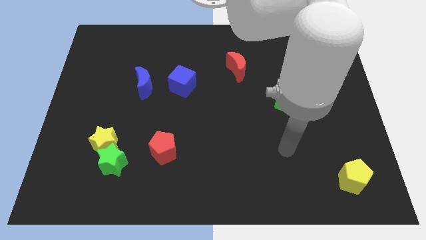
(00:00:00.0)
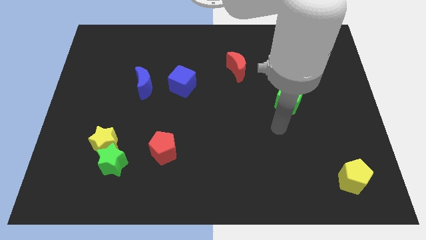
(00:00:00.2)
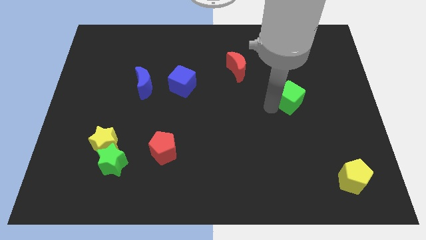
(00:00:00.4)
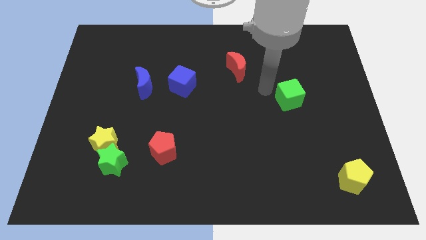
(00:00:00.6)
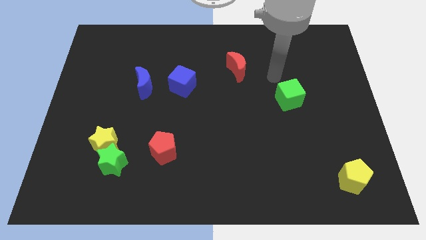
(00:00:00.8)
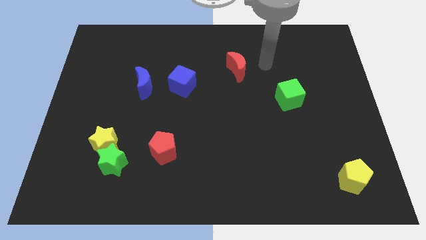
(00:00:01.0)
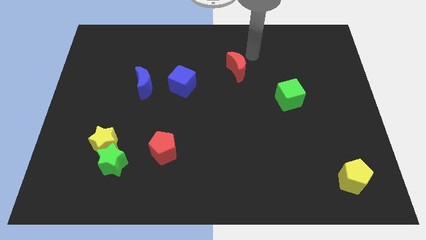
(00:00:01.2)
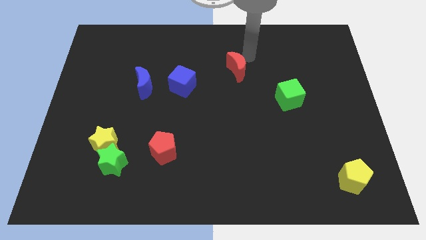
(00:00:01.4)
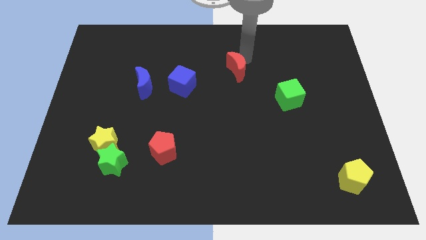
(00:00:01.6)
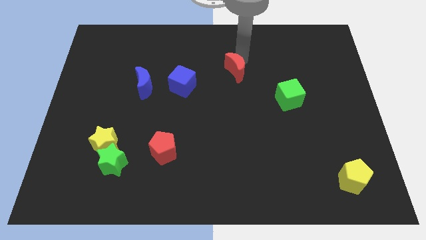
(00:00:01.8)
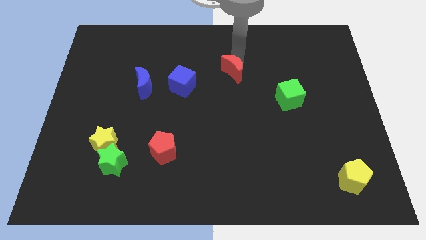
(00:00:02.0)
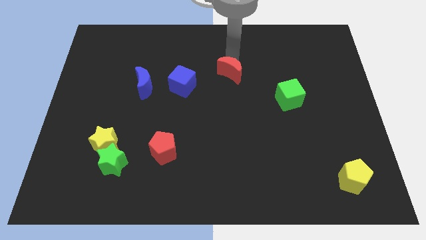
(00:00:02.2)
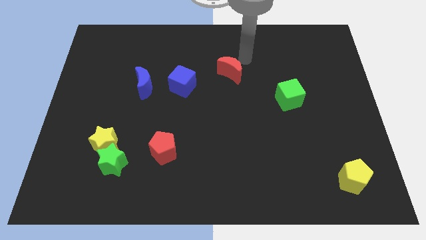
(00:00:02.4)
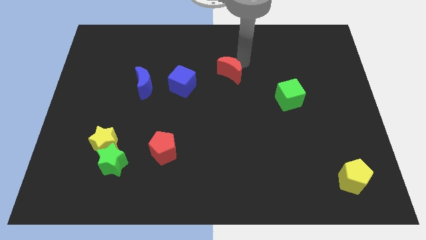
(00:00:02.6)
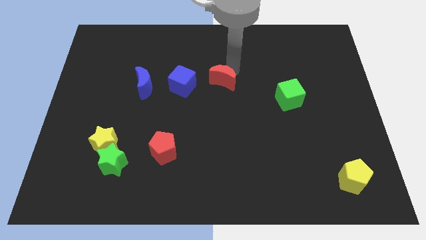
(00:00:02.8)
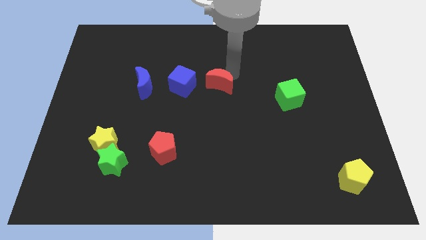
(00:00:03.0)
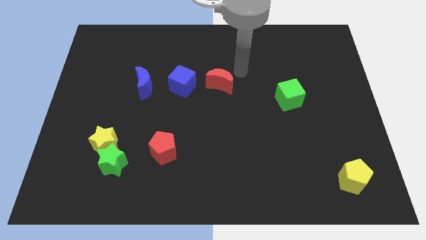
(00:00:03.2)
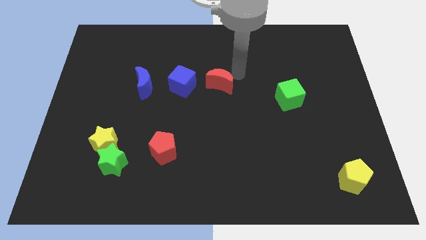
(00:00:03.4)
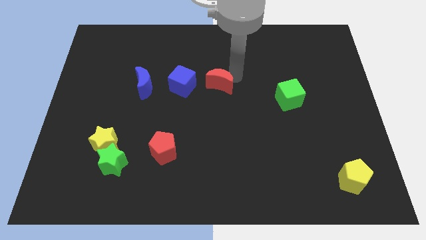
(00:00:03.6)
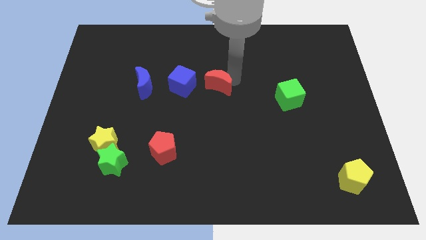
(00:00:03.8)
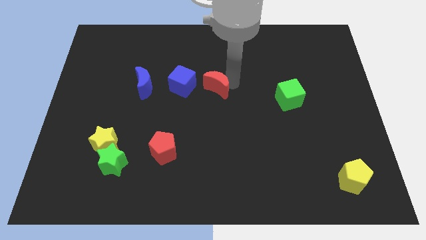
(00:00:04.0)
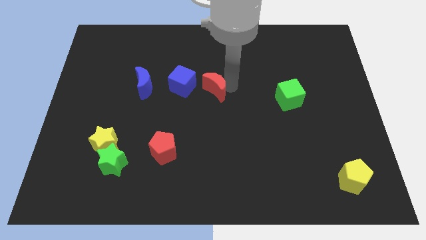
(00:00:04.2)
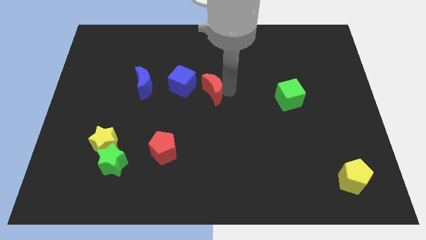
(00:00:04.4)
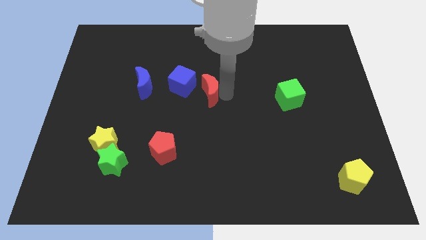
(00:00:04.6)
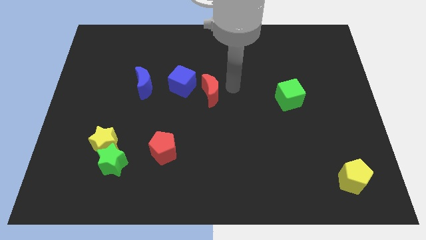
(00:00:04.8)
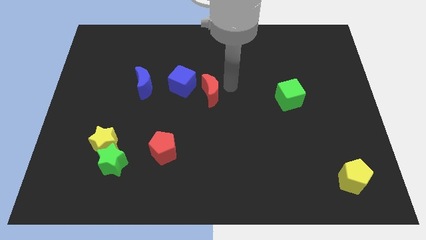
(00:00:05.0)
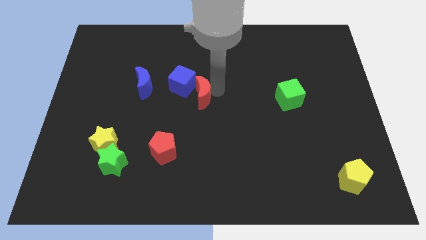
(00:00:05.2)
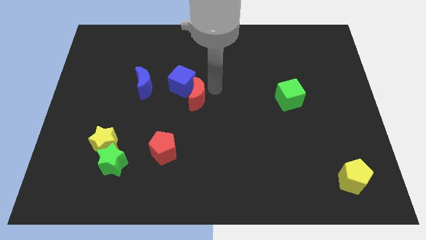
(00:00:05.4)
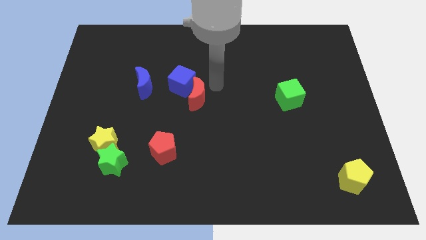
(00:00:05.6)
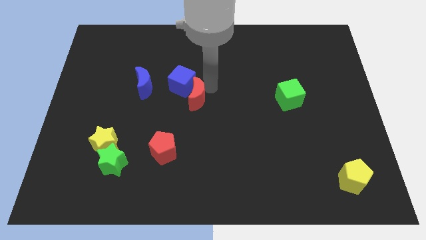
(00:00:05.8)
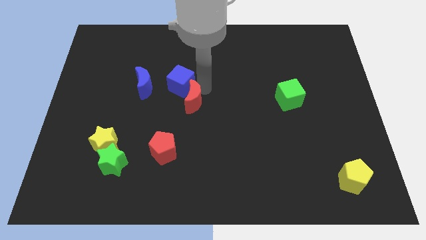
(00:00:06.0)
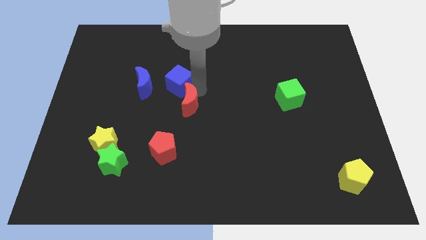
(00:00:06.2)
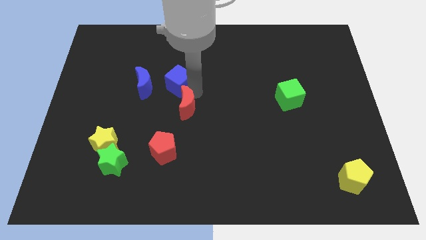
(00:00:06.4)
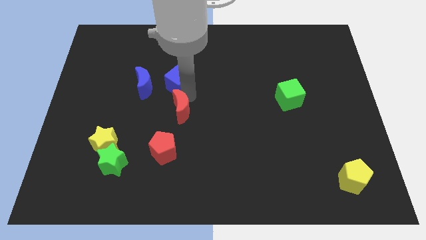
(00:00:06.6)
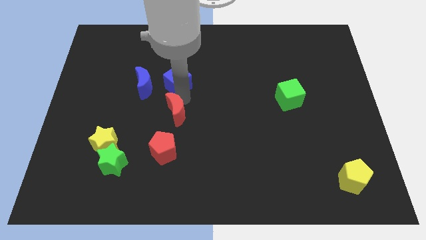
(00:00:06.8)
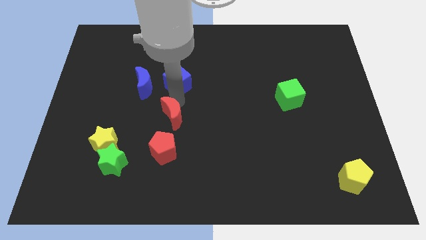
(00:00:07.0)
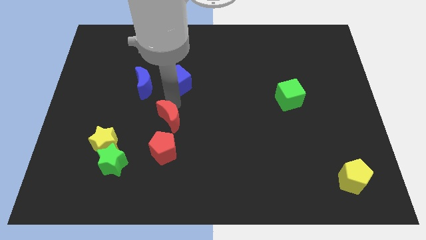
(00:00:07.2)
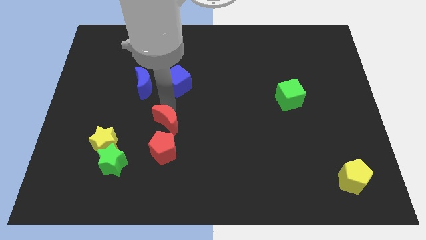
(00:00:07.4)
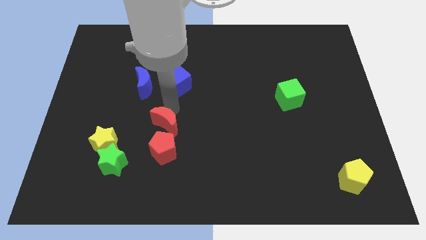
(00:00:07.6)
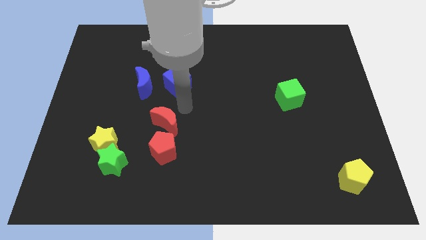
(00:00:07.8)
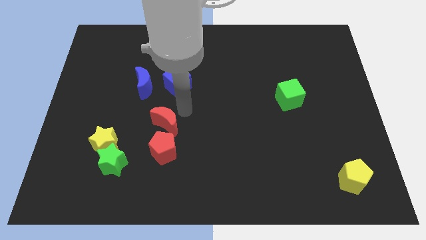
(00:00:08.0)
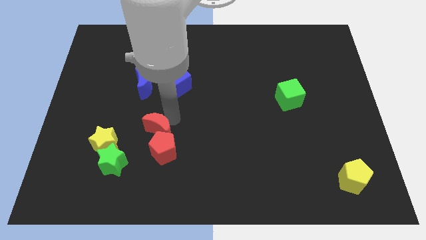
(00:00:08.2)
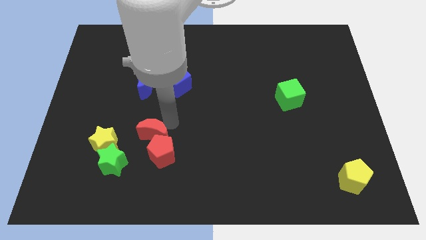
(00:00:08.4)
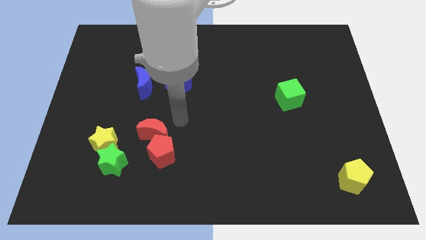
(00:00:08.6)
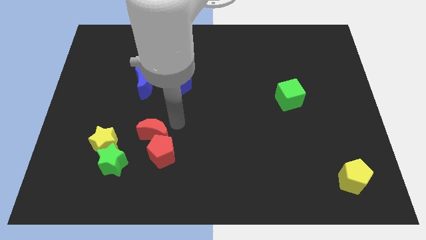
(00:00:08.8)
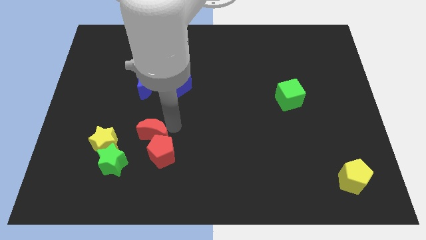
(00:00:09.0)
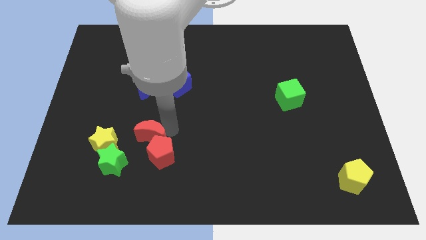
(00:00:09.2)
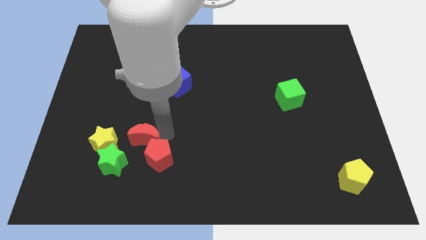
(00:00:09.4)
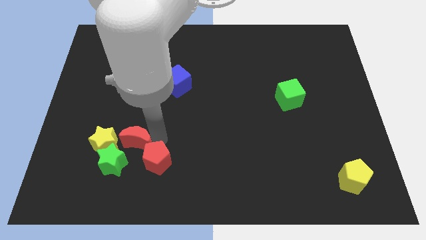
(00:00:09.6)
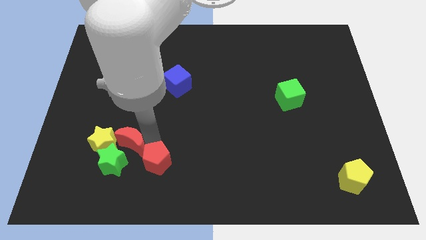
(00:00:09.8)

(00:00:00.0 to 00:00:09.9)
move the red moon close to the green star

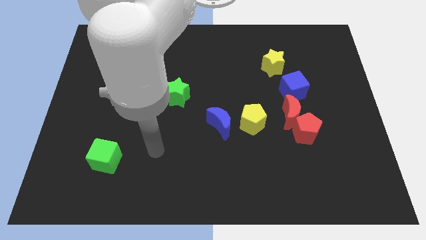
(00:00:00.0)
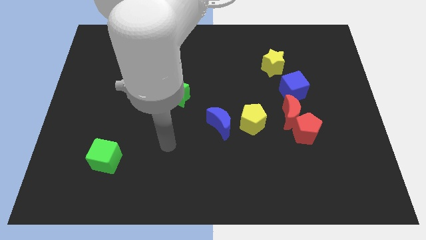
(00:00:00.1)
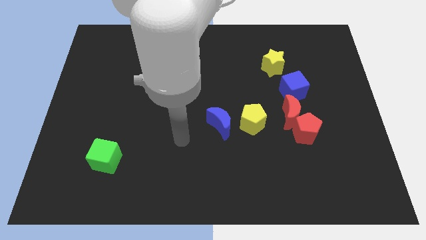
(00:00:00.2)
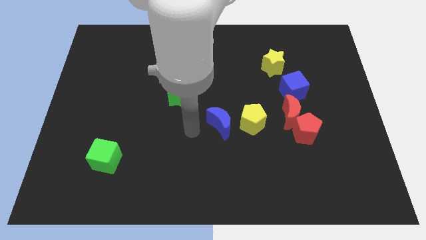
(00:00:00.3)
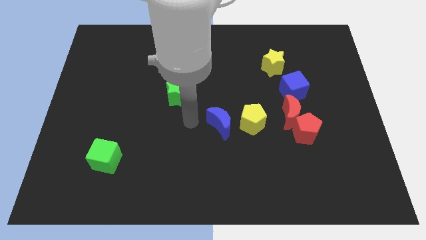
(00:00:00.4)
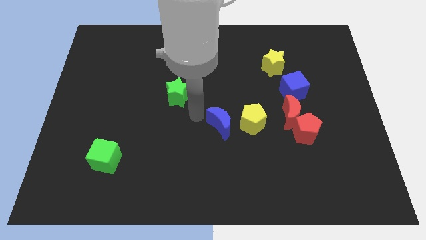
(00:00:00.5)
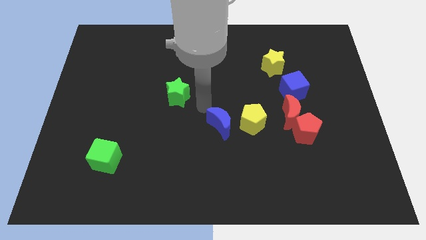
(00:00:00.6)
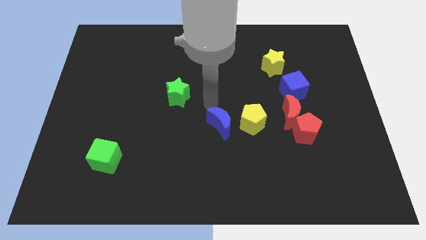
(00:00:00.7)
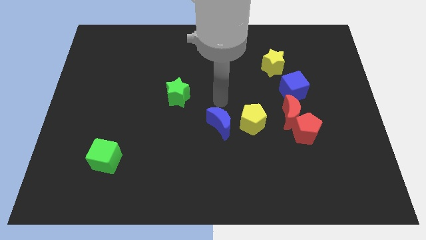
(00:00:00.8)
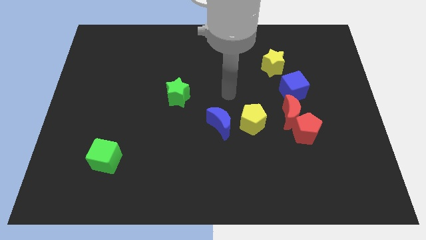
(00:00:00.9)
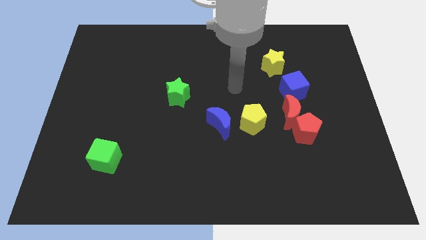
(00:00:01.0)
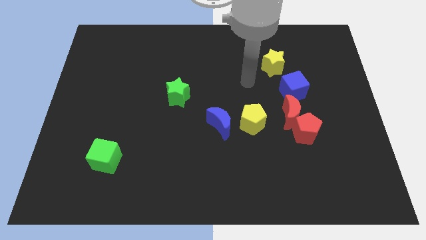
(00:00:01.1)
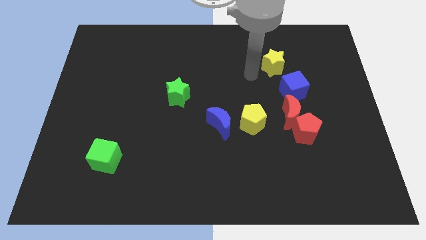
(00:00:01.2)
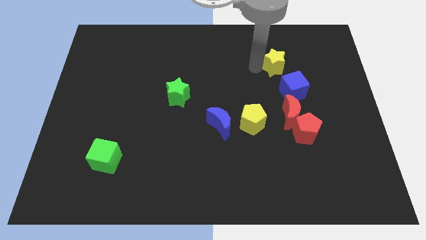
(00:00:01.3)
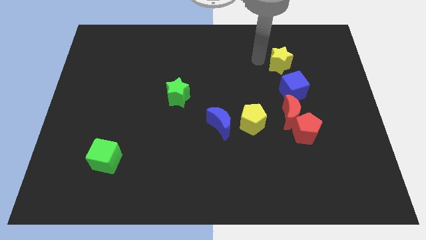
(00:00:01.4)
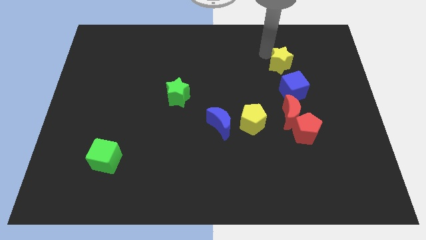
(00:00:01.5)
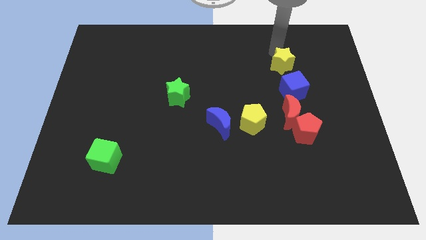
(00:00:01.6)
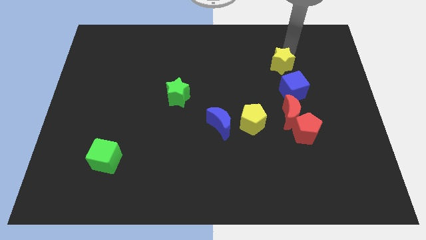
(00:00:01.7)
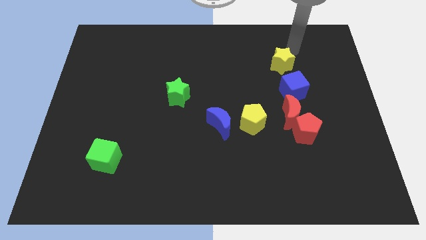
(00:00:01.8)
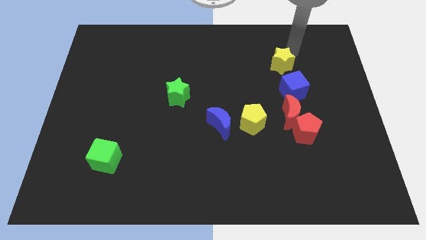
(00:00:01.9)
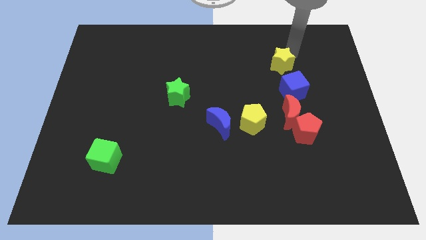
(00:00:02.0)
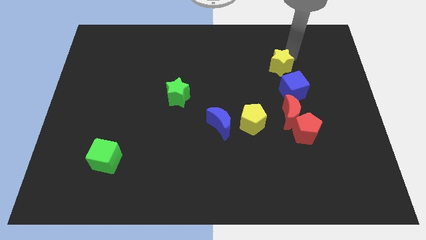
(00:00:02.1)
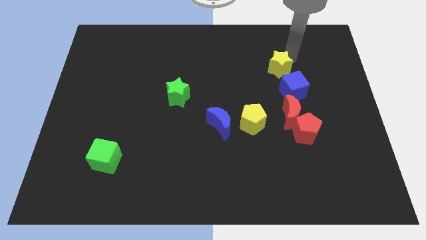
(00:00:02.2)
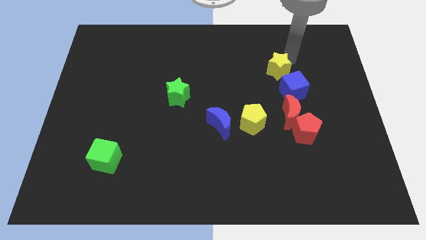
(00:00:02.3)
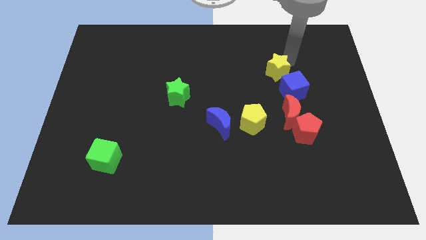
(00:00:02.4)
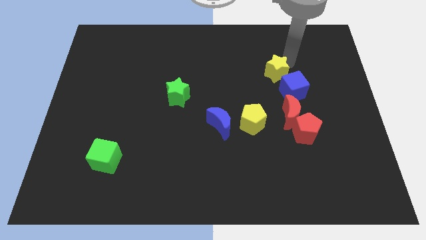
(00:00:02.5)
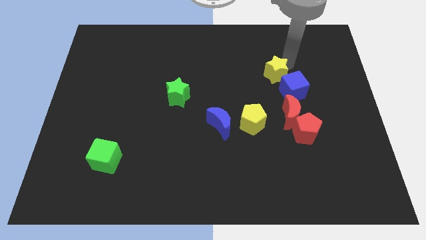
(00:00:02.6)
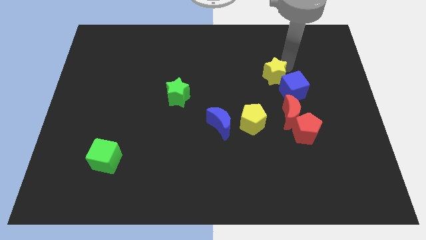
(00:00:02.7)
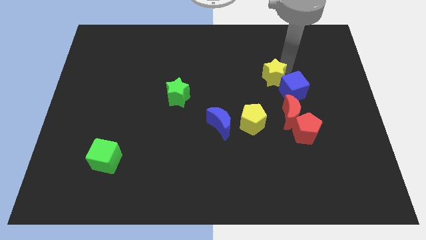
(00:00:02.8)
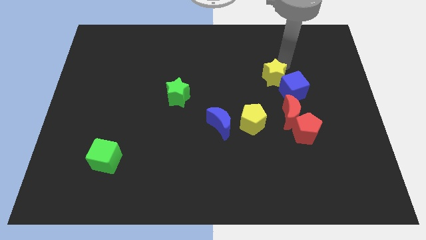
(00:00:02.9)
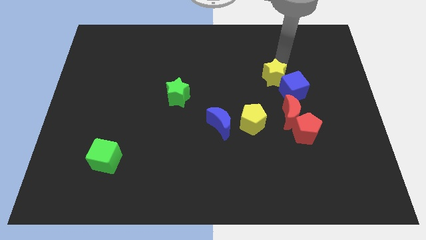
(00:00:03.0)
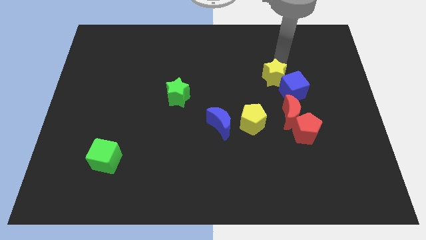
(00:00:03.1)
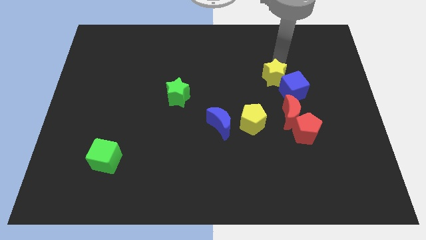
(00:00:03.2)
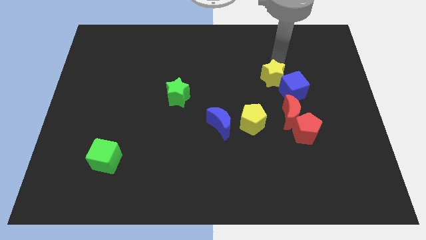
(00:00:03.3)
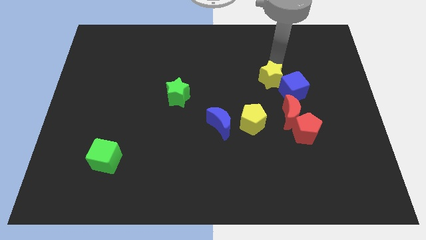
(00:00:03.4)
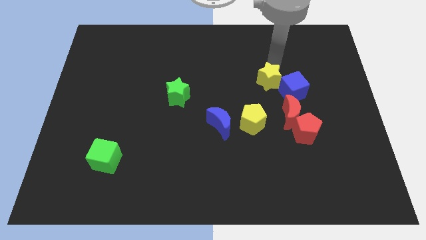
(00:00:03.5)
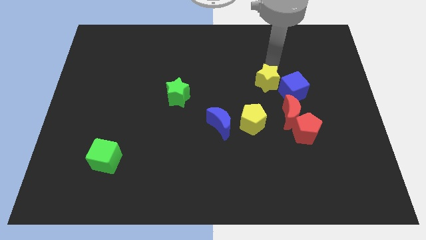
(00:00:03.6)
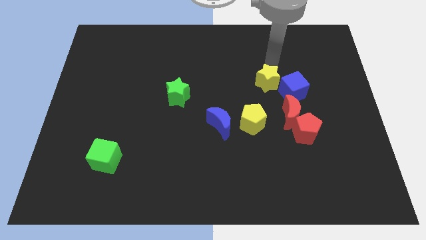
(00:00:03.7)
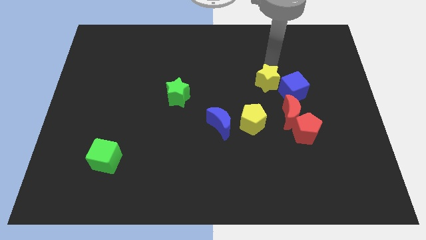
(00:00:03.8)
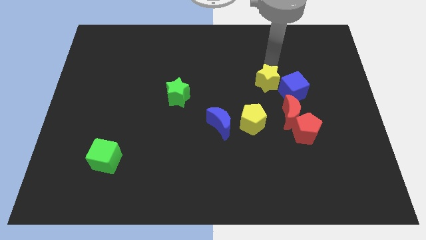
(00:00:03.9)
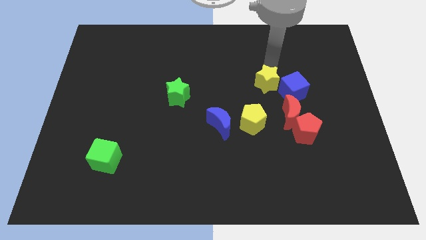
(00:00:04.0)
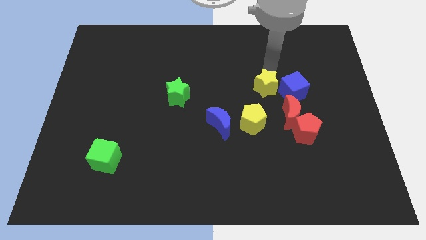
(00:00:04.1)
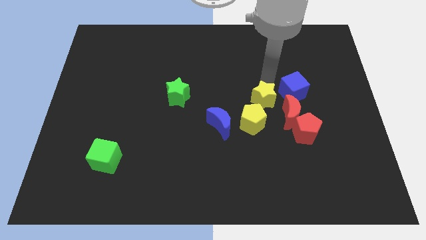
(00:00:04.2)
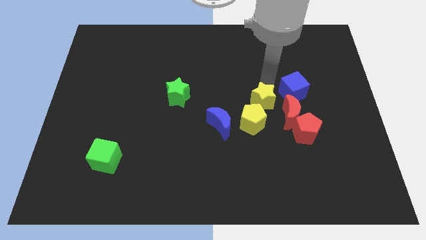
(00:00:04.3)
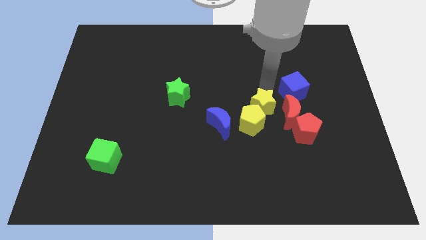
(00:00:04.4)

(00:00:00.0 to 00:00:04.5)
move the yellow star to the yellow pentagon
